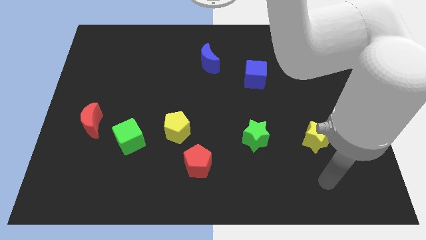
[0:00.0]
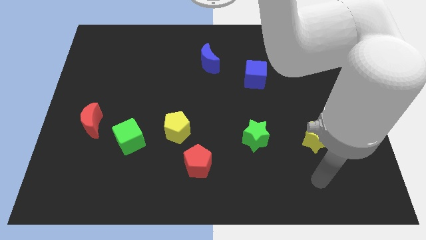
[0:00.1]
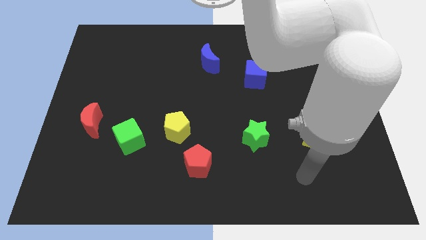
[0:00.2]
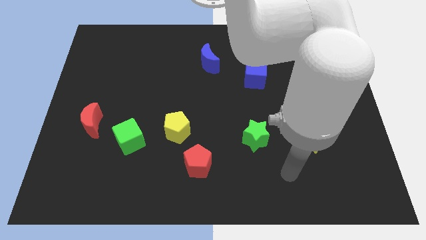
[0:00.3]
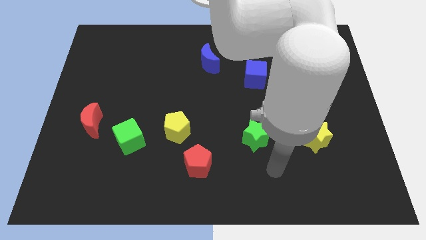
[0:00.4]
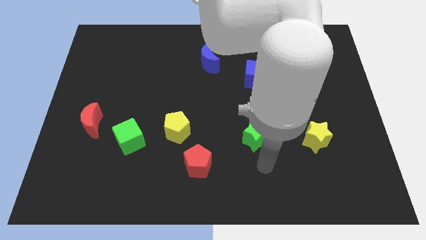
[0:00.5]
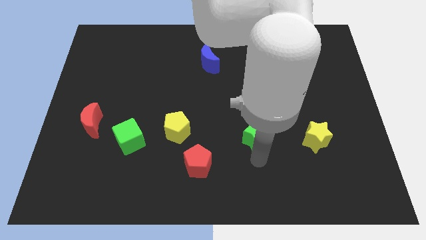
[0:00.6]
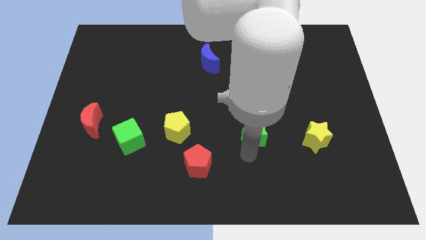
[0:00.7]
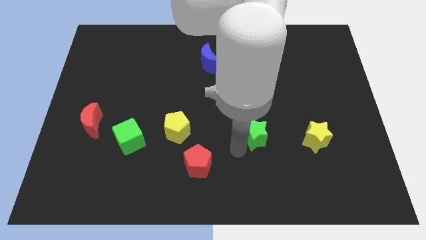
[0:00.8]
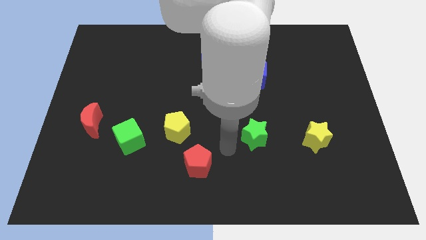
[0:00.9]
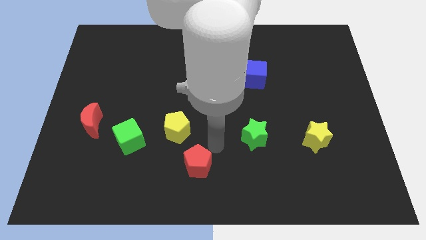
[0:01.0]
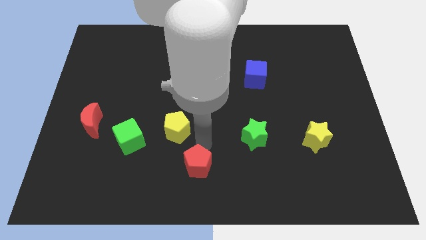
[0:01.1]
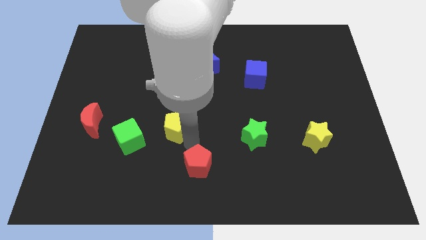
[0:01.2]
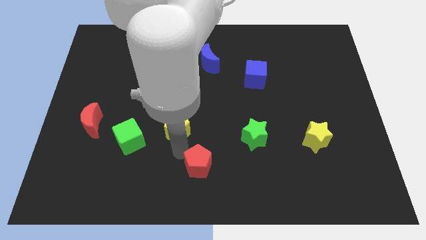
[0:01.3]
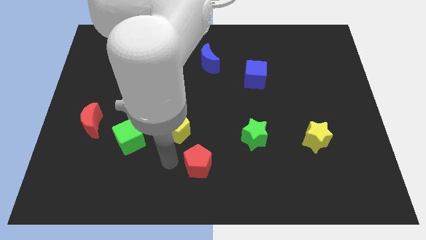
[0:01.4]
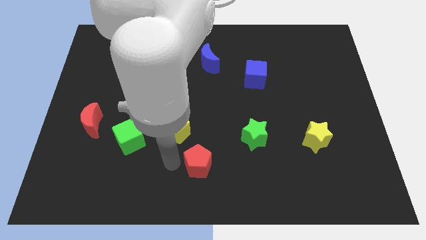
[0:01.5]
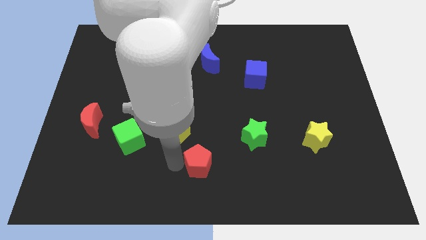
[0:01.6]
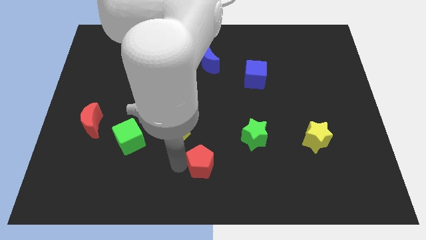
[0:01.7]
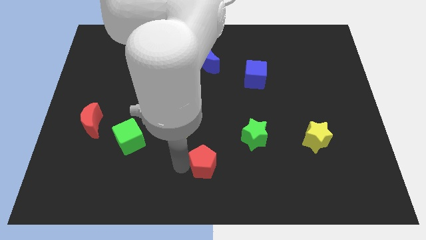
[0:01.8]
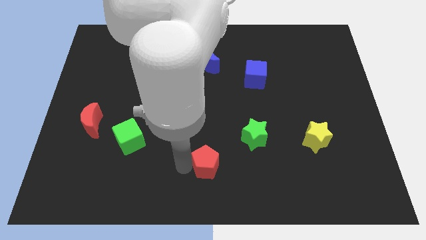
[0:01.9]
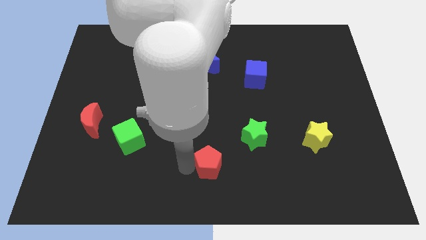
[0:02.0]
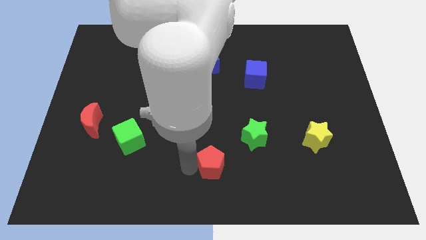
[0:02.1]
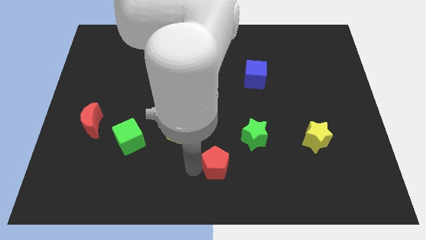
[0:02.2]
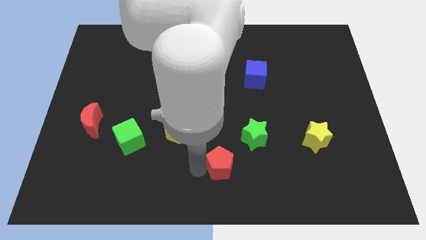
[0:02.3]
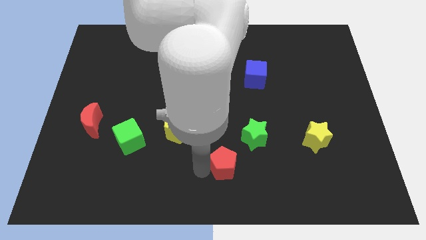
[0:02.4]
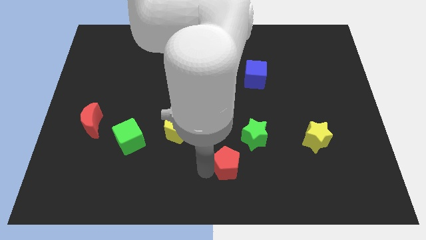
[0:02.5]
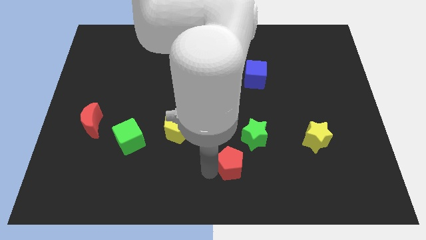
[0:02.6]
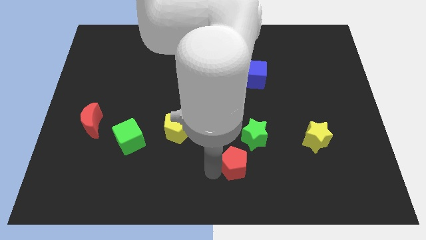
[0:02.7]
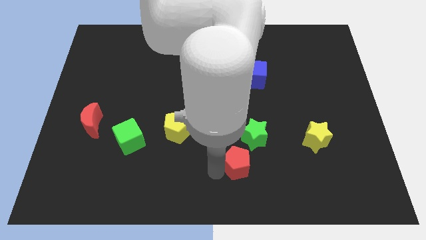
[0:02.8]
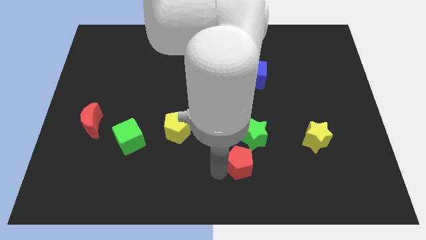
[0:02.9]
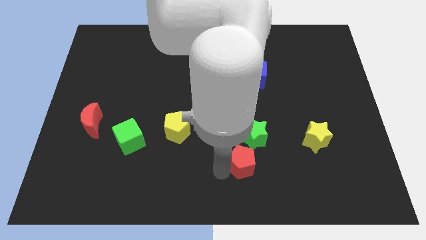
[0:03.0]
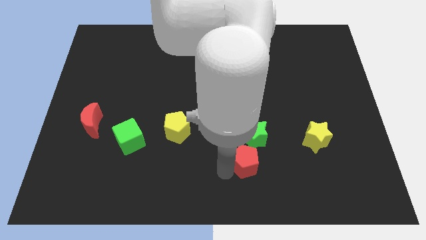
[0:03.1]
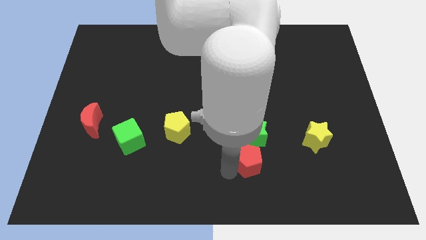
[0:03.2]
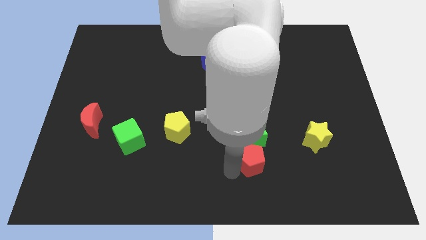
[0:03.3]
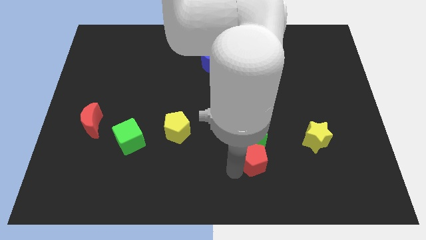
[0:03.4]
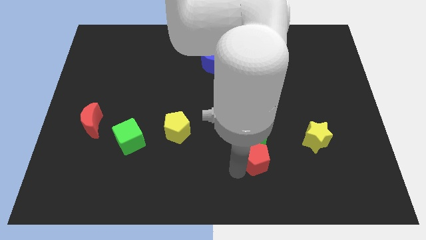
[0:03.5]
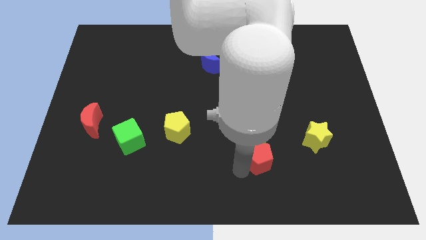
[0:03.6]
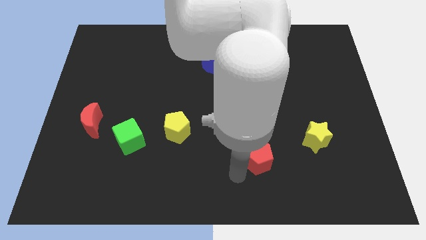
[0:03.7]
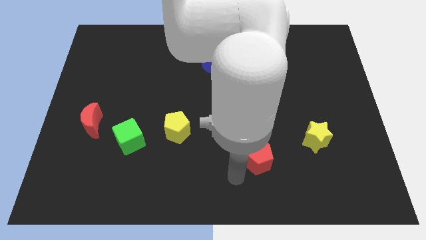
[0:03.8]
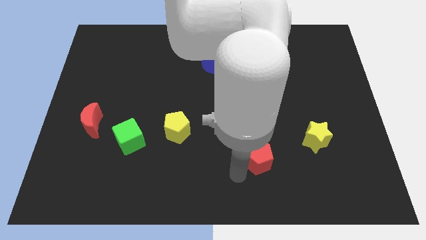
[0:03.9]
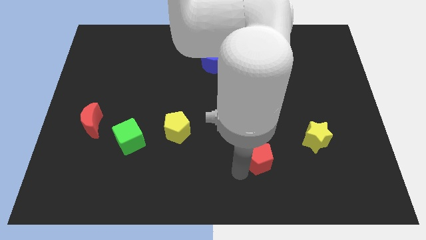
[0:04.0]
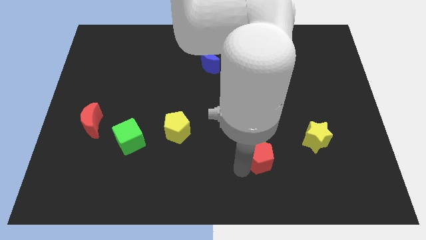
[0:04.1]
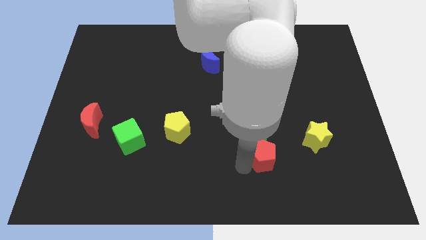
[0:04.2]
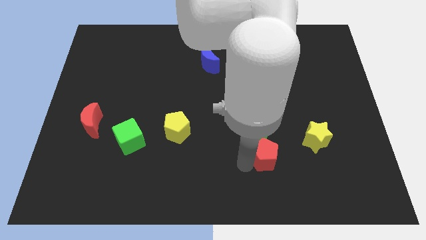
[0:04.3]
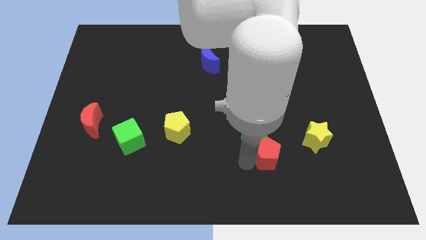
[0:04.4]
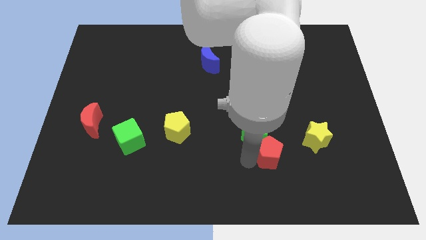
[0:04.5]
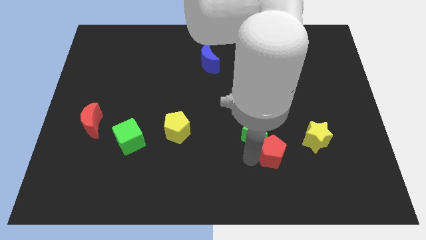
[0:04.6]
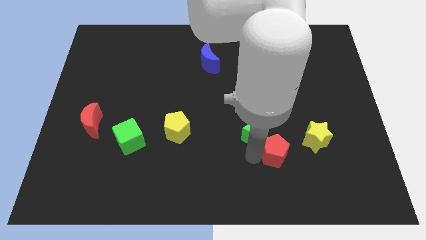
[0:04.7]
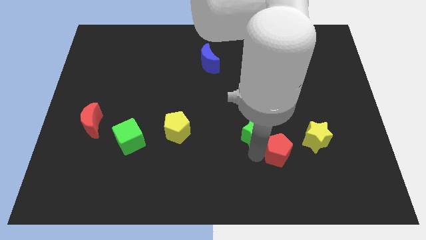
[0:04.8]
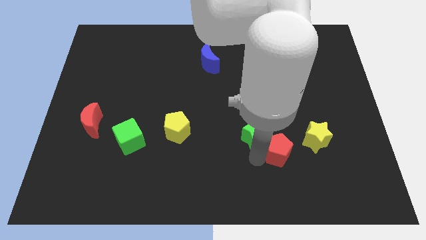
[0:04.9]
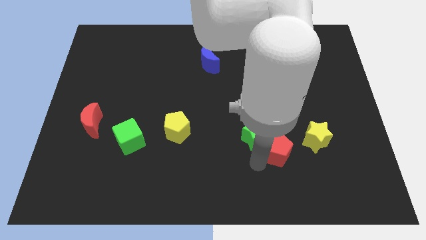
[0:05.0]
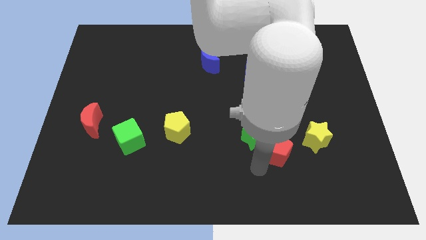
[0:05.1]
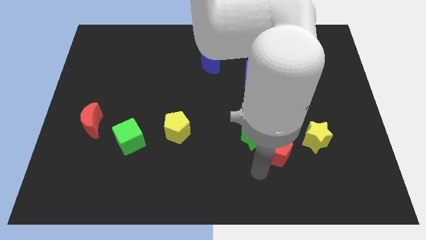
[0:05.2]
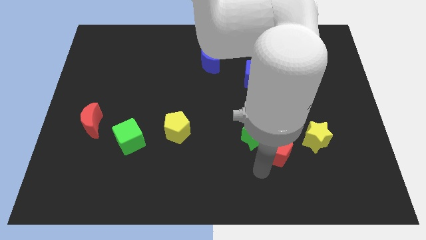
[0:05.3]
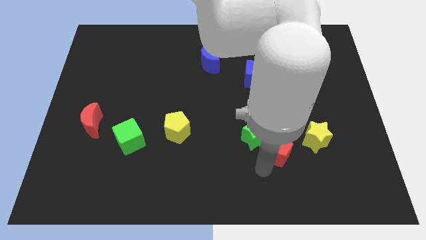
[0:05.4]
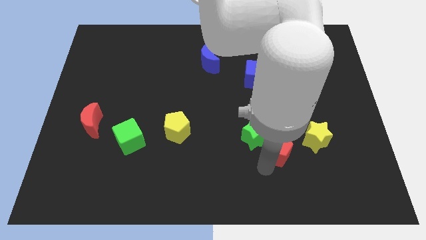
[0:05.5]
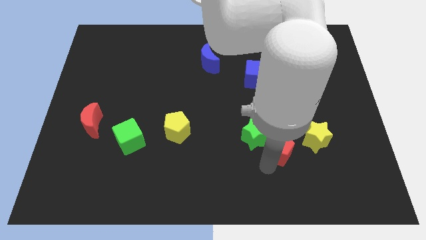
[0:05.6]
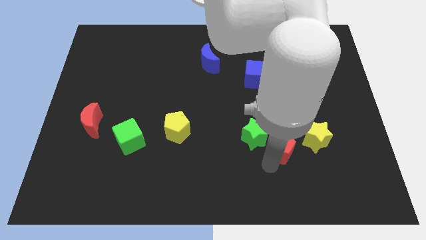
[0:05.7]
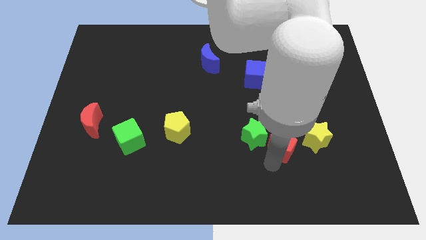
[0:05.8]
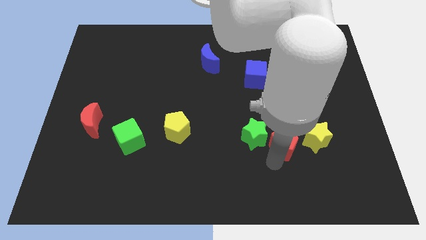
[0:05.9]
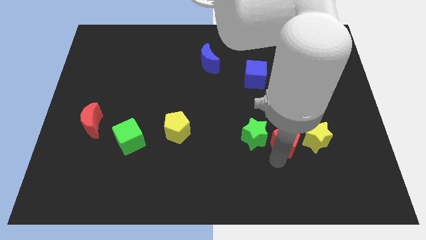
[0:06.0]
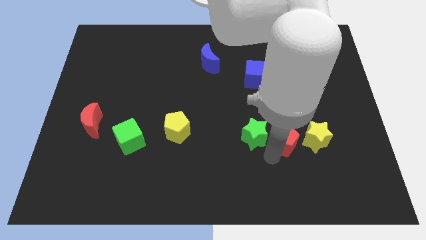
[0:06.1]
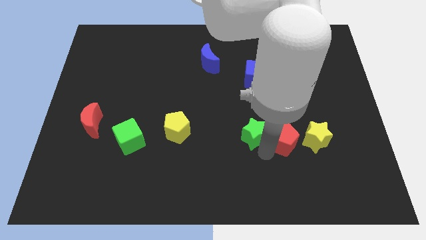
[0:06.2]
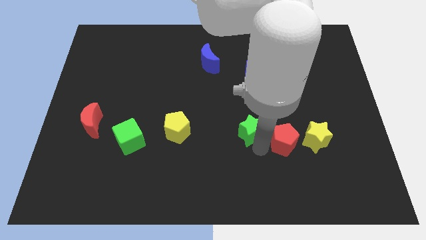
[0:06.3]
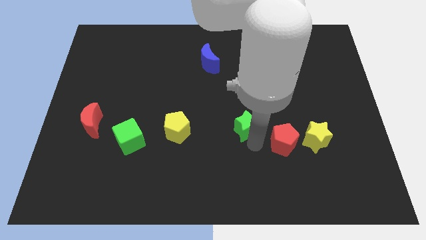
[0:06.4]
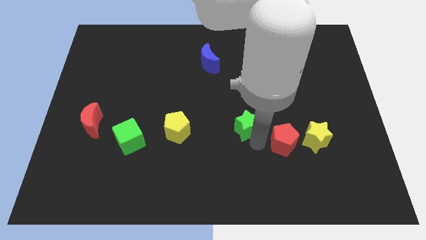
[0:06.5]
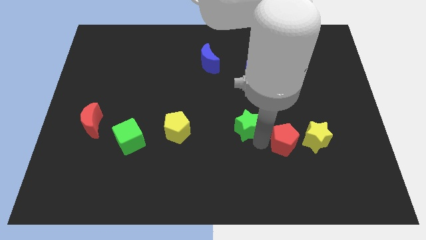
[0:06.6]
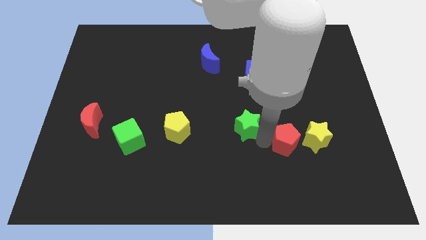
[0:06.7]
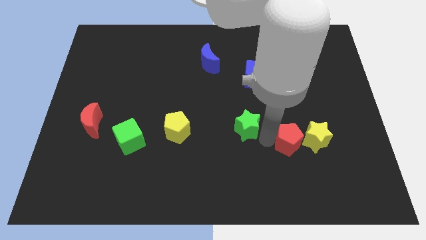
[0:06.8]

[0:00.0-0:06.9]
put the red pentagon next to the yellow star
